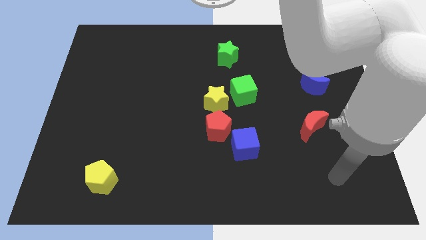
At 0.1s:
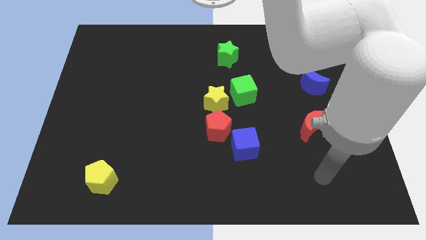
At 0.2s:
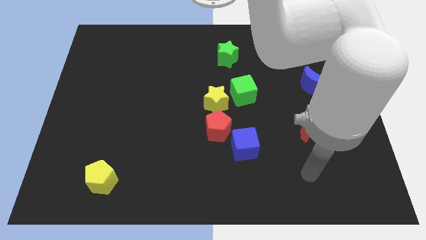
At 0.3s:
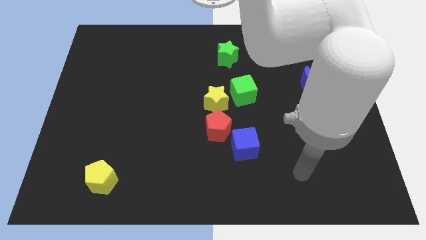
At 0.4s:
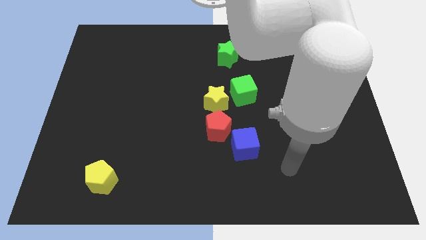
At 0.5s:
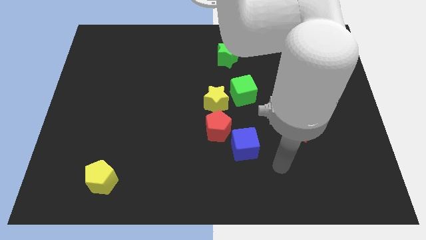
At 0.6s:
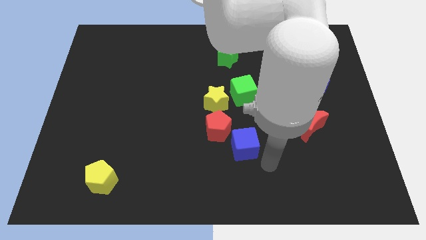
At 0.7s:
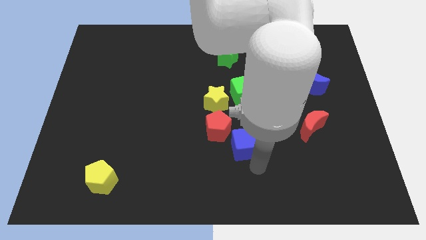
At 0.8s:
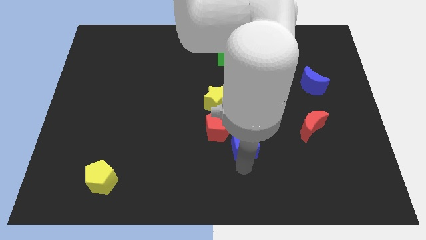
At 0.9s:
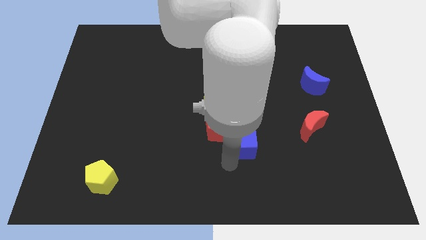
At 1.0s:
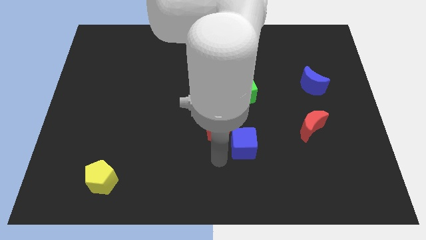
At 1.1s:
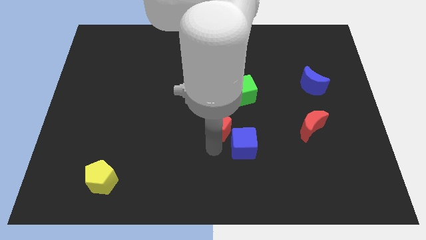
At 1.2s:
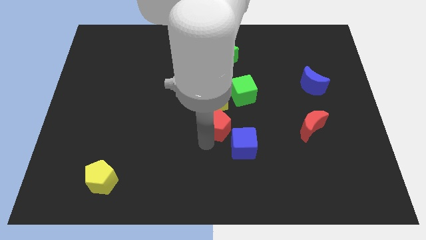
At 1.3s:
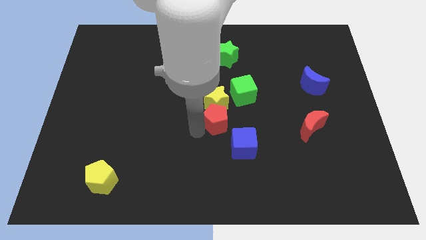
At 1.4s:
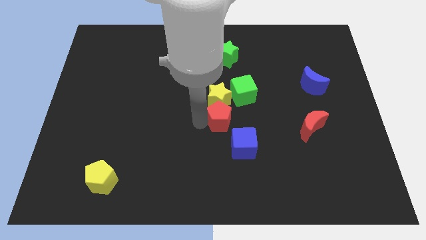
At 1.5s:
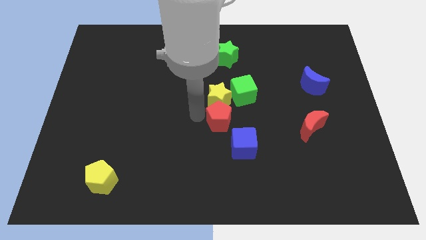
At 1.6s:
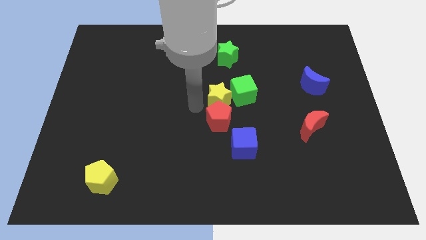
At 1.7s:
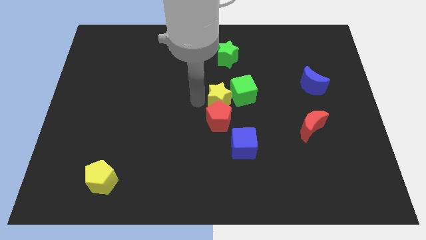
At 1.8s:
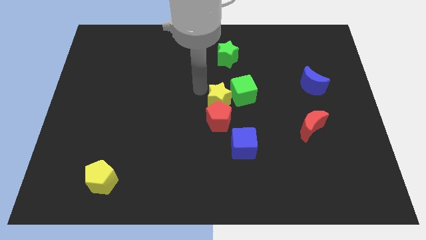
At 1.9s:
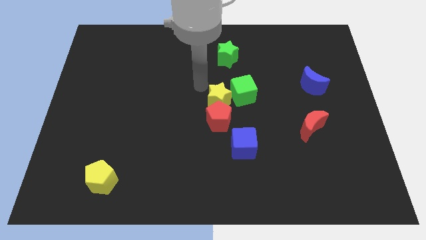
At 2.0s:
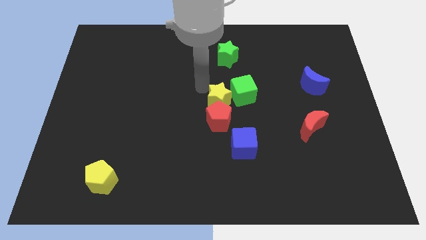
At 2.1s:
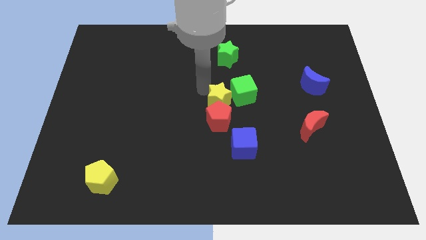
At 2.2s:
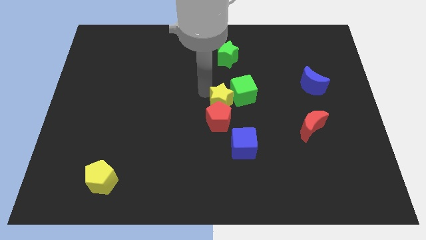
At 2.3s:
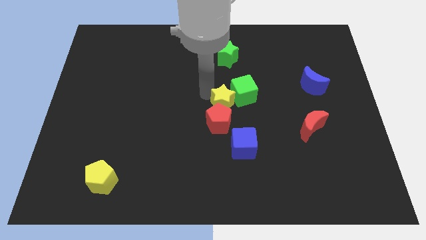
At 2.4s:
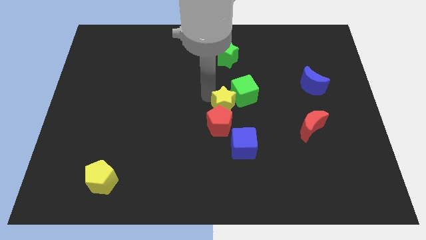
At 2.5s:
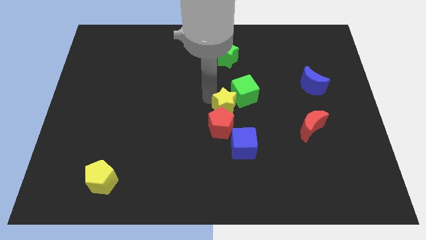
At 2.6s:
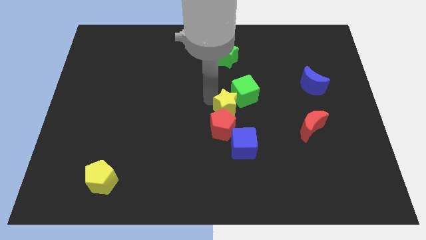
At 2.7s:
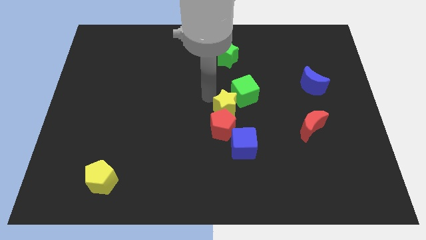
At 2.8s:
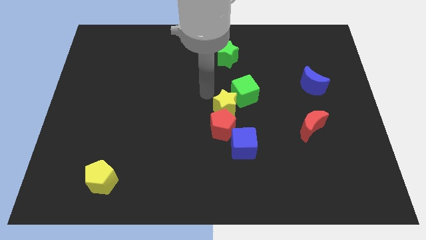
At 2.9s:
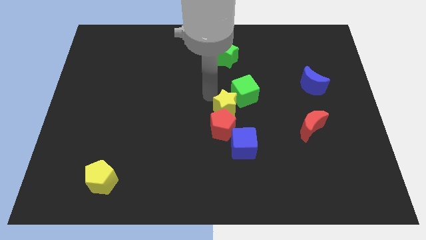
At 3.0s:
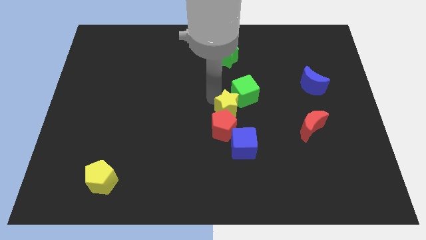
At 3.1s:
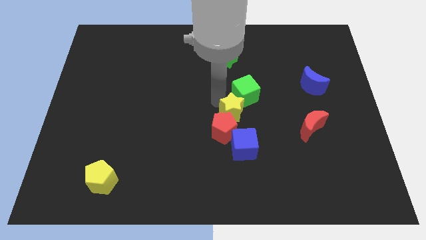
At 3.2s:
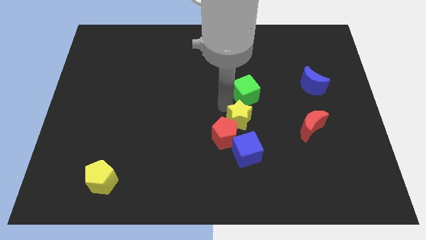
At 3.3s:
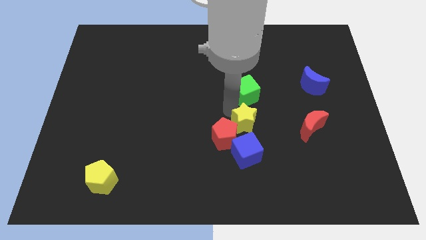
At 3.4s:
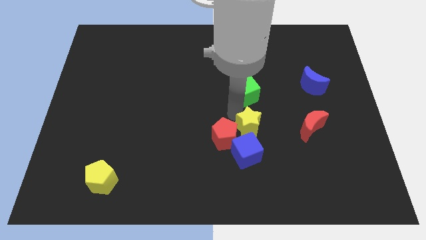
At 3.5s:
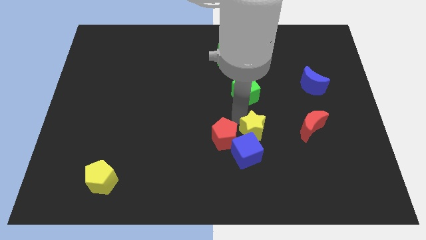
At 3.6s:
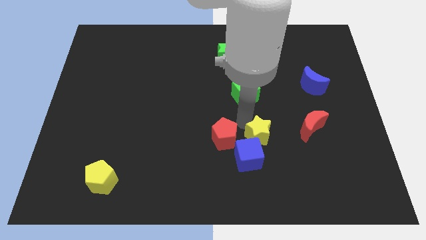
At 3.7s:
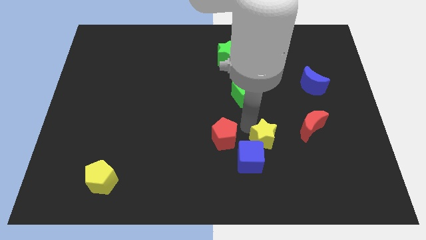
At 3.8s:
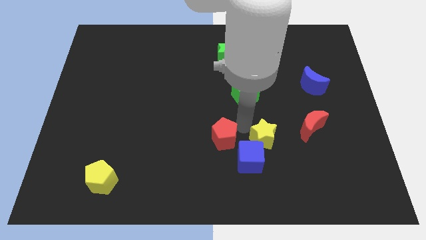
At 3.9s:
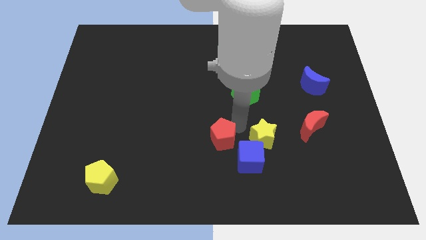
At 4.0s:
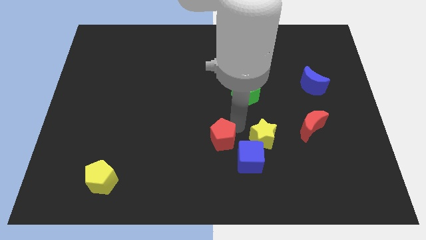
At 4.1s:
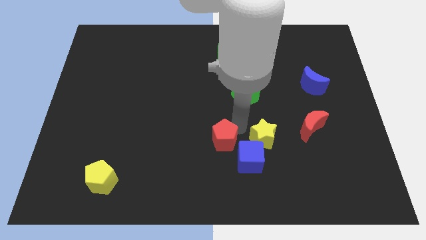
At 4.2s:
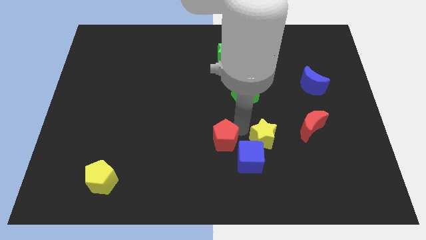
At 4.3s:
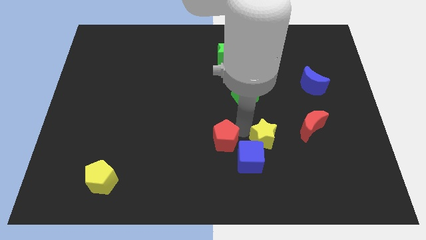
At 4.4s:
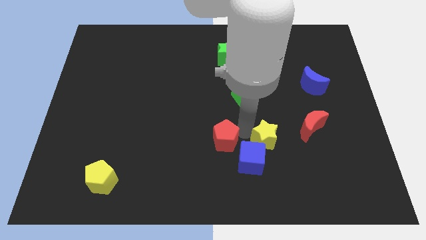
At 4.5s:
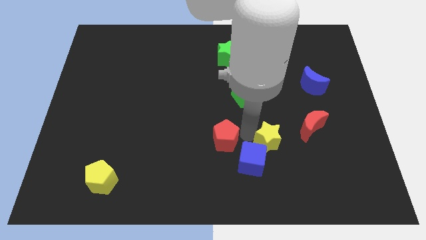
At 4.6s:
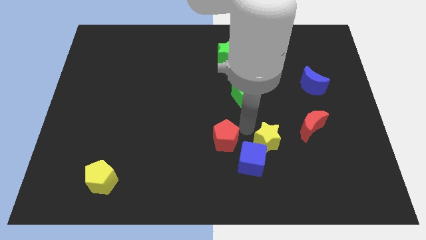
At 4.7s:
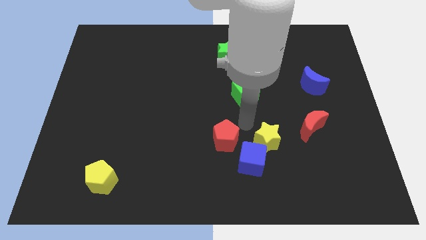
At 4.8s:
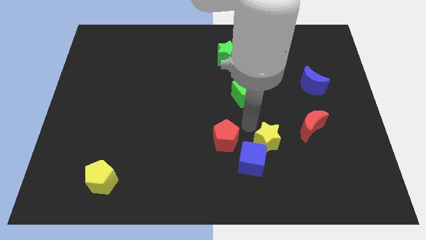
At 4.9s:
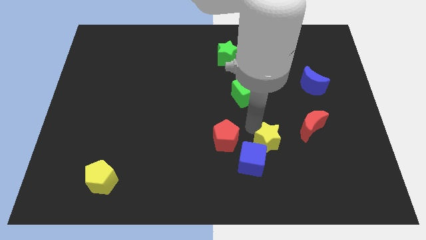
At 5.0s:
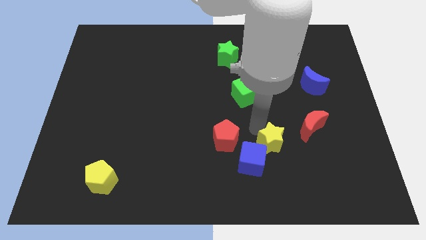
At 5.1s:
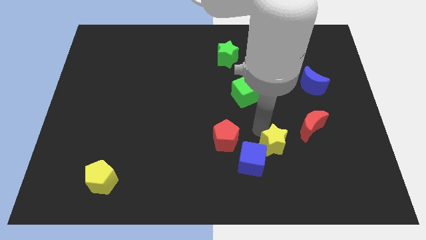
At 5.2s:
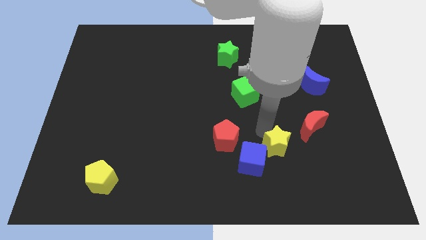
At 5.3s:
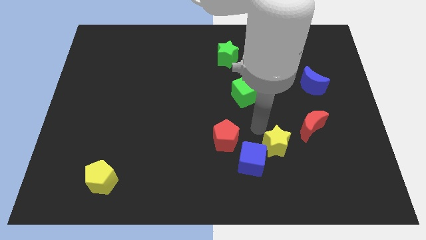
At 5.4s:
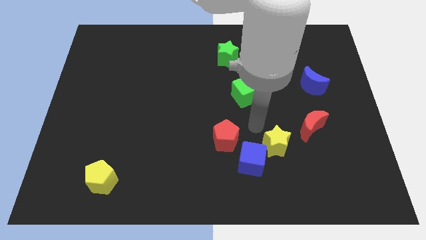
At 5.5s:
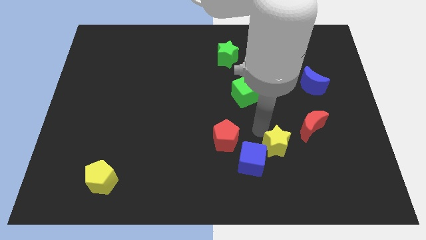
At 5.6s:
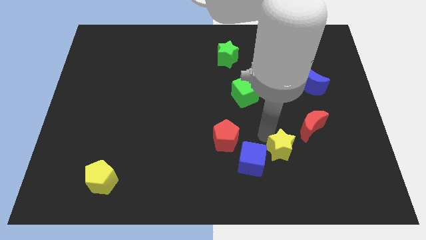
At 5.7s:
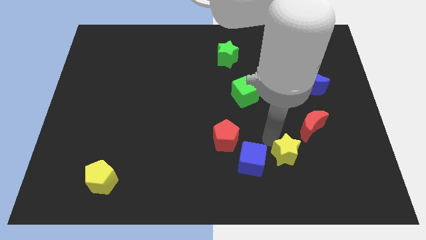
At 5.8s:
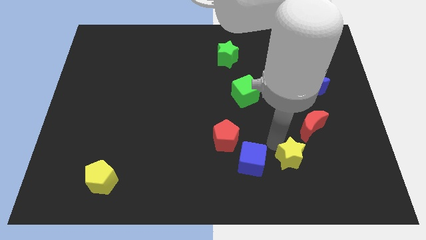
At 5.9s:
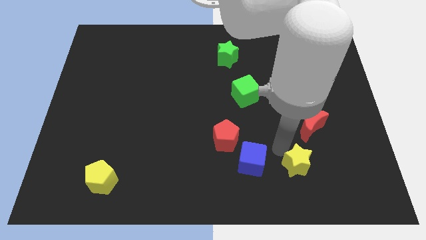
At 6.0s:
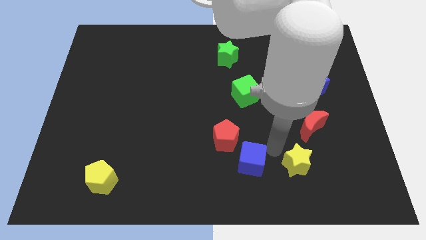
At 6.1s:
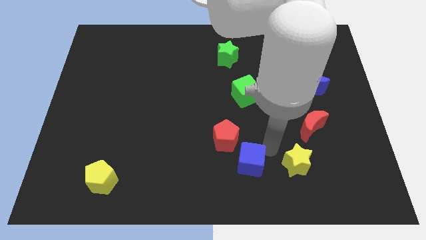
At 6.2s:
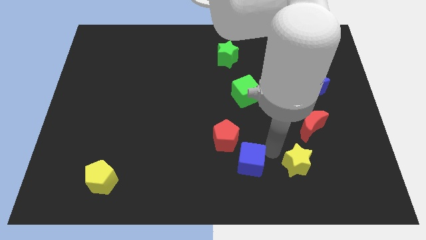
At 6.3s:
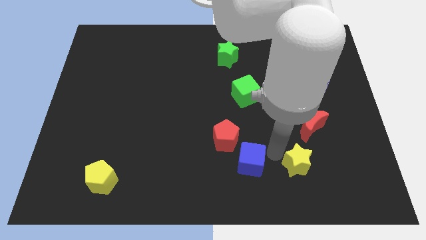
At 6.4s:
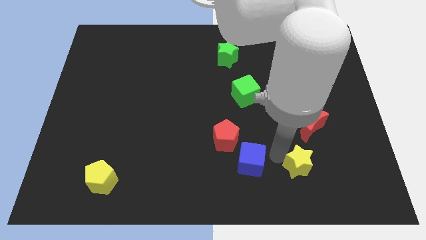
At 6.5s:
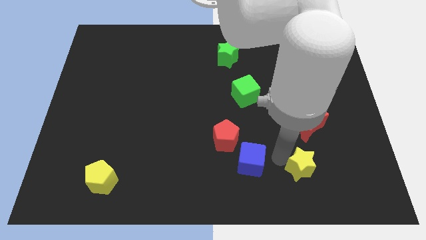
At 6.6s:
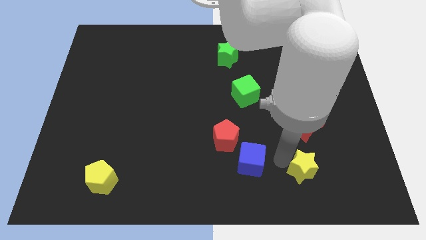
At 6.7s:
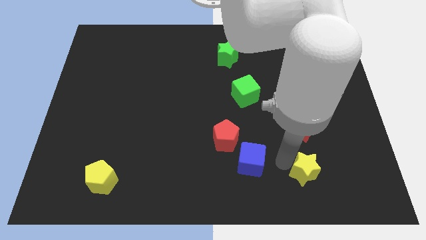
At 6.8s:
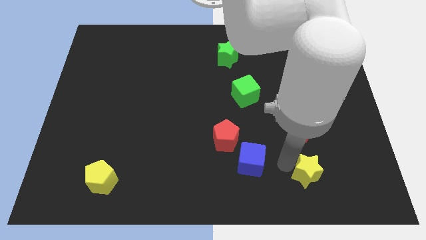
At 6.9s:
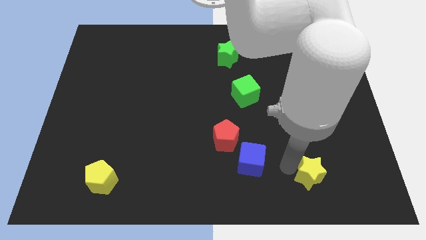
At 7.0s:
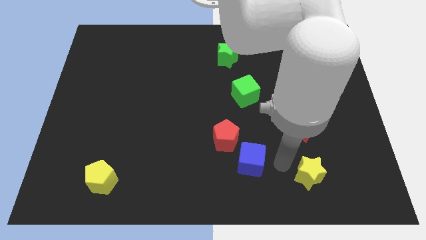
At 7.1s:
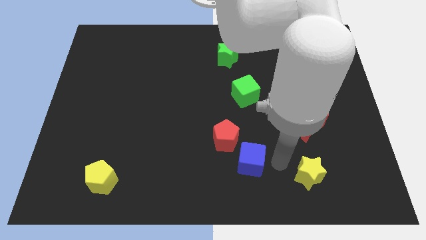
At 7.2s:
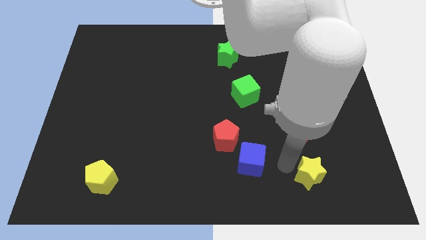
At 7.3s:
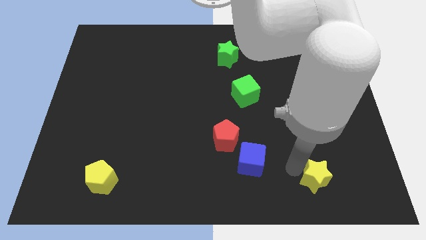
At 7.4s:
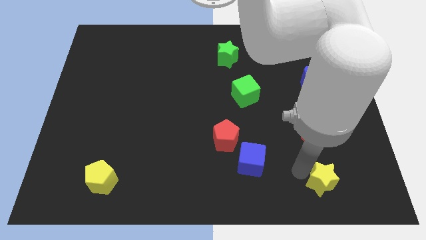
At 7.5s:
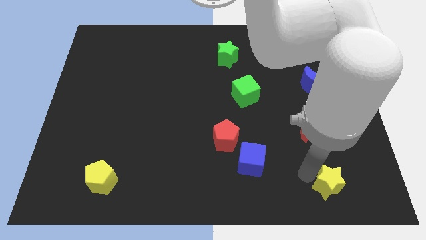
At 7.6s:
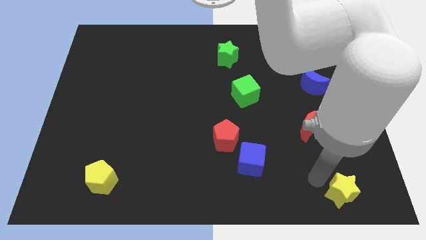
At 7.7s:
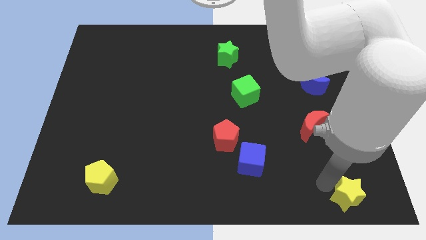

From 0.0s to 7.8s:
push the yellow star to the bottom right
